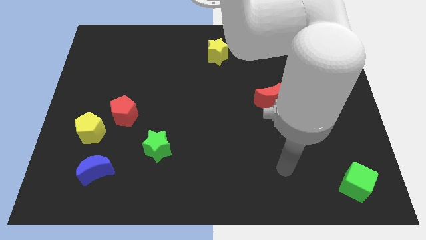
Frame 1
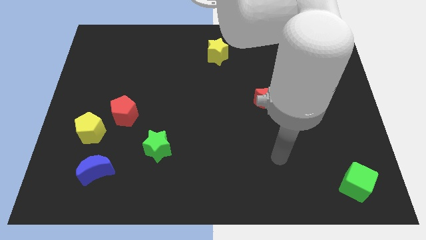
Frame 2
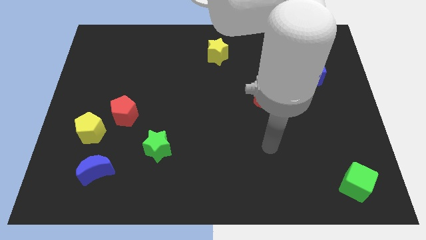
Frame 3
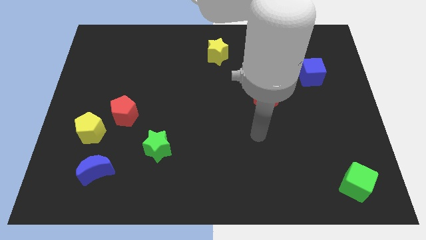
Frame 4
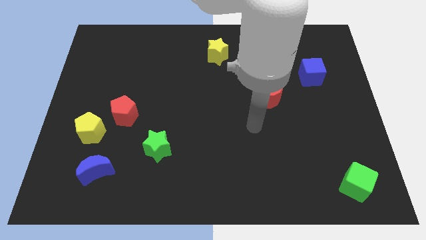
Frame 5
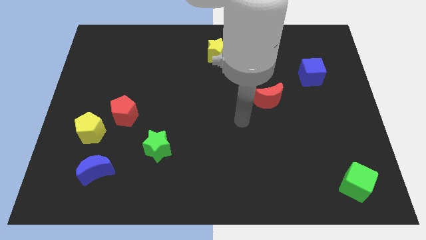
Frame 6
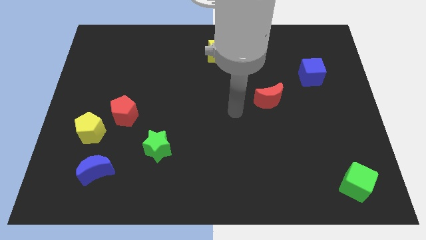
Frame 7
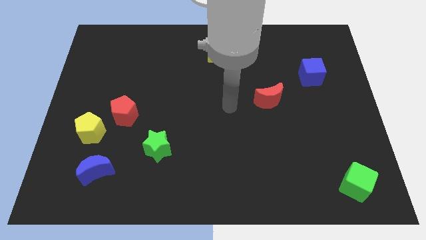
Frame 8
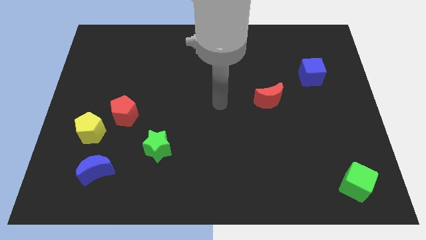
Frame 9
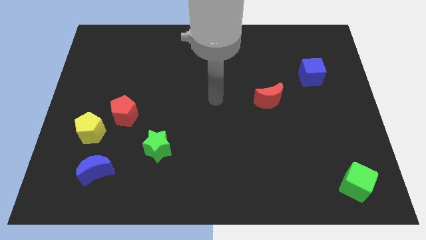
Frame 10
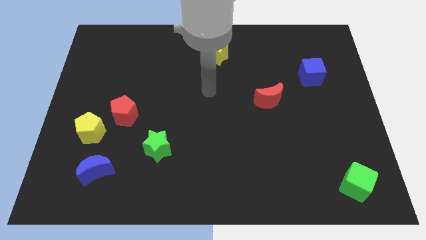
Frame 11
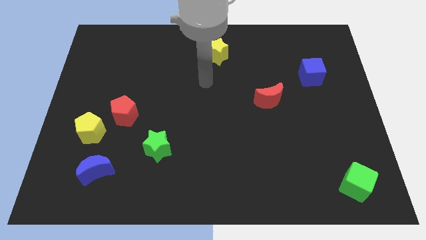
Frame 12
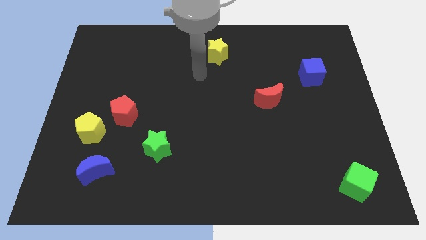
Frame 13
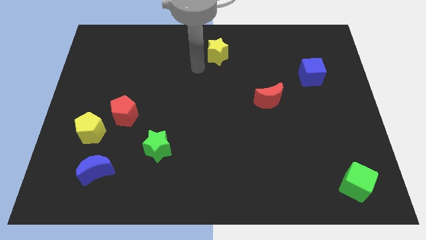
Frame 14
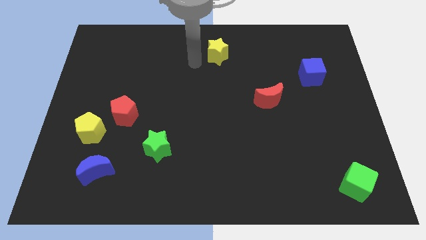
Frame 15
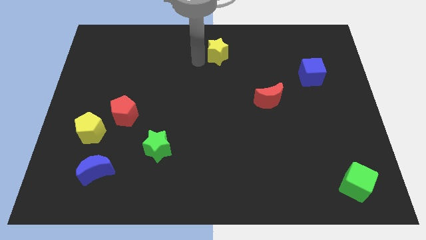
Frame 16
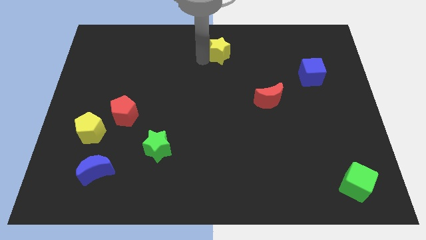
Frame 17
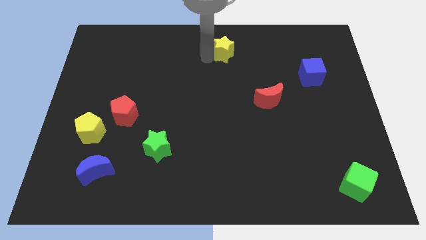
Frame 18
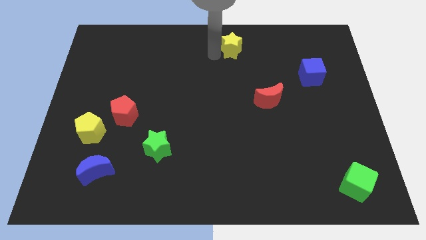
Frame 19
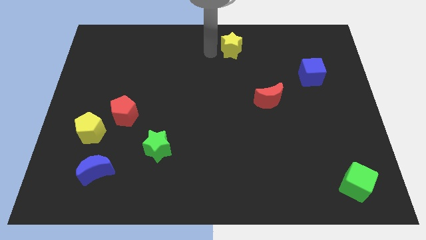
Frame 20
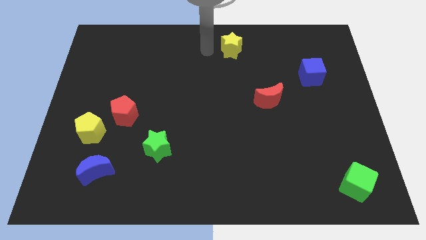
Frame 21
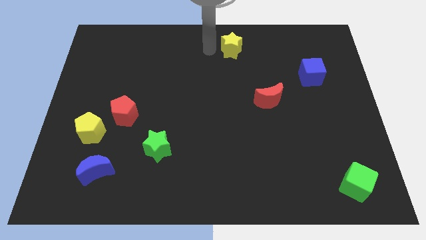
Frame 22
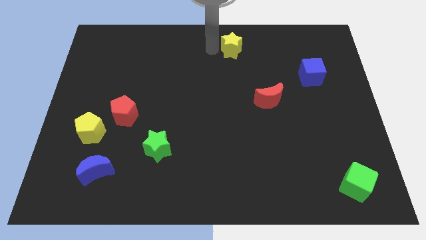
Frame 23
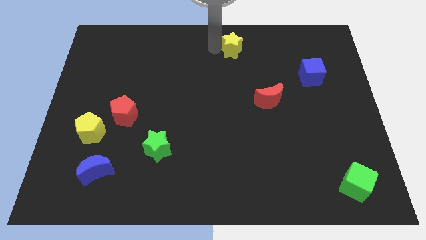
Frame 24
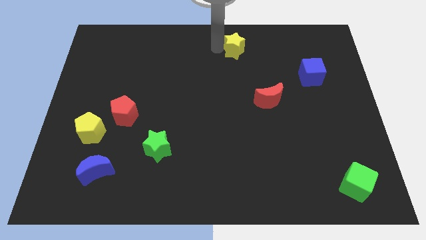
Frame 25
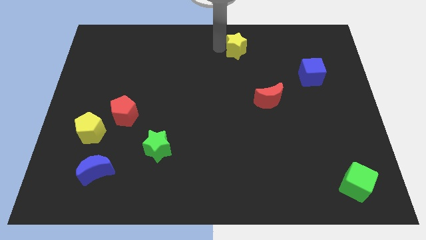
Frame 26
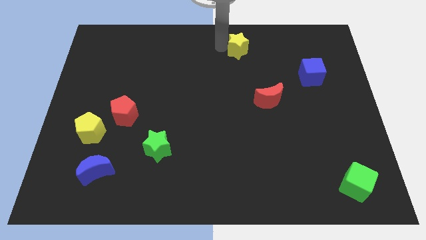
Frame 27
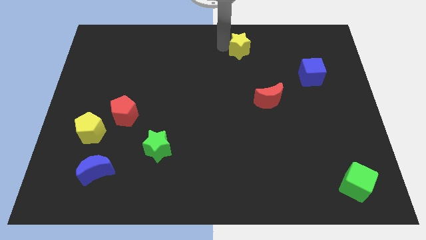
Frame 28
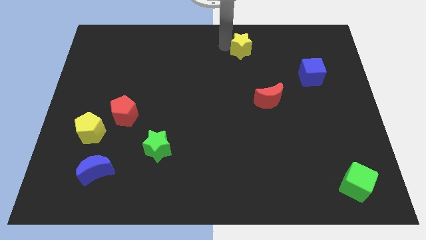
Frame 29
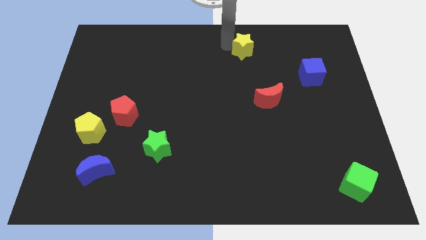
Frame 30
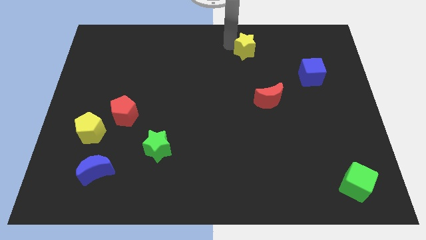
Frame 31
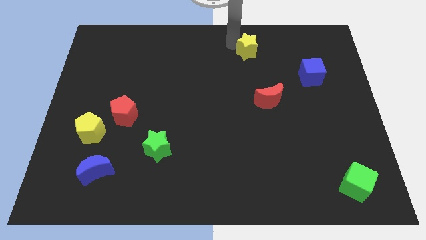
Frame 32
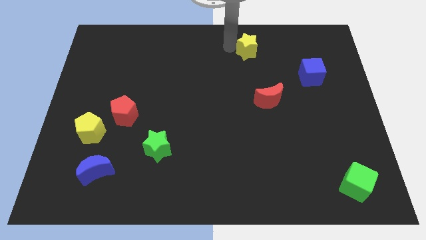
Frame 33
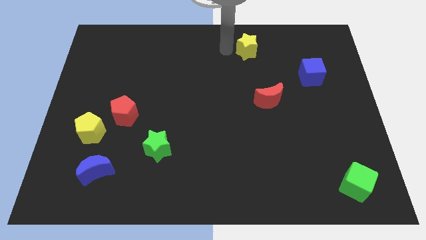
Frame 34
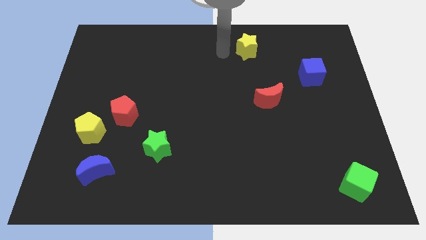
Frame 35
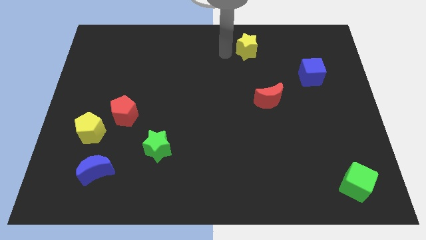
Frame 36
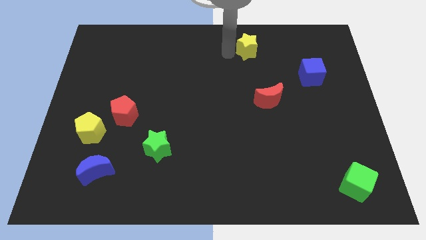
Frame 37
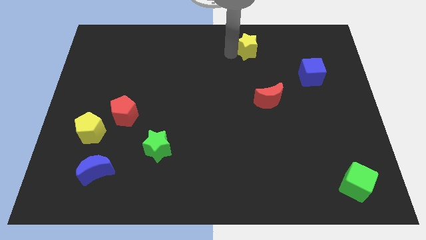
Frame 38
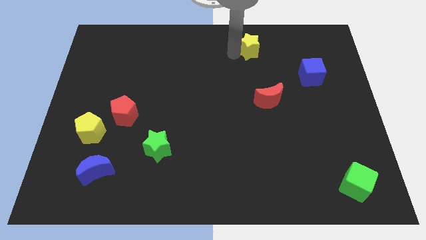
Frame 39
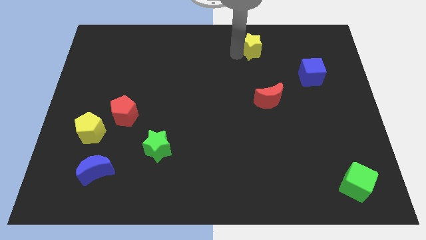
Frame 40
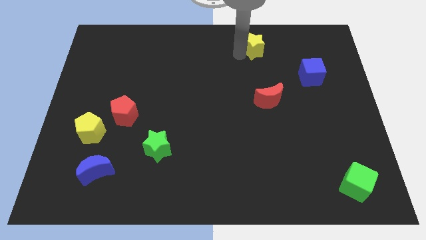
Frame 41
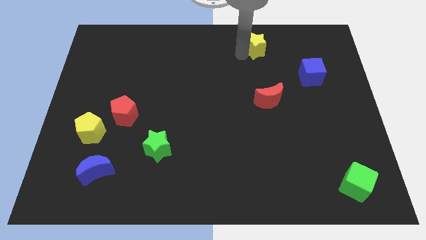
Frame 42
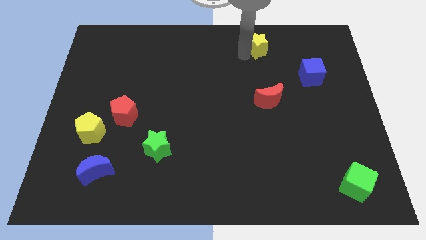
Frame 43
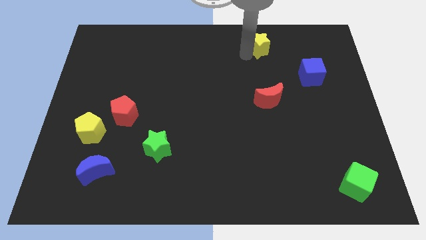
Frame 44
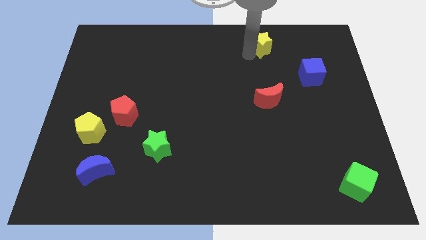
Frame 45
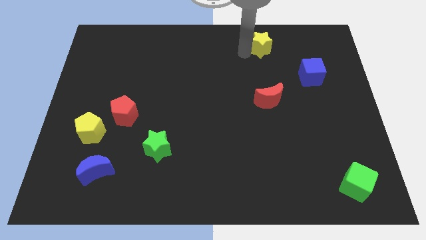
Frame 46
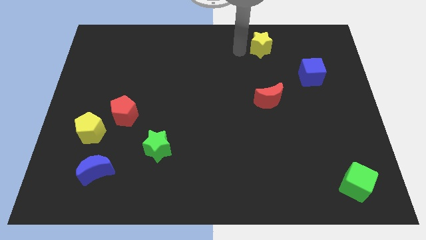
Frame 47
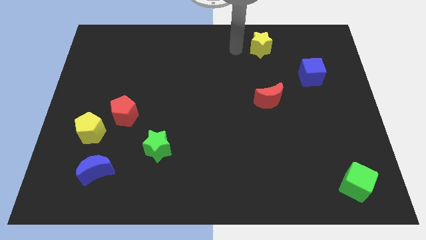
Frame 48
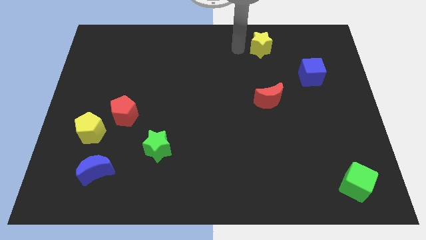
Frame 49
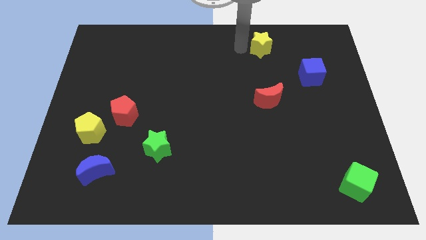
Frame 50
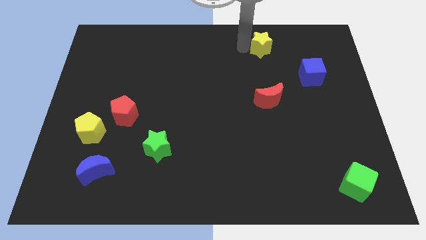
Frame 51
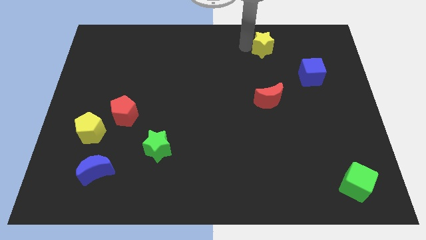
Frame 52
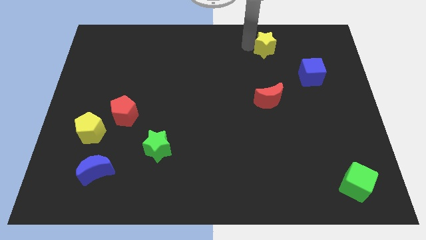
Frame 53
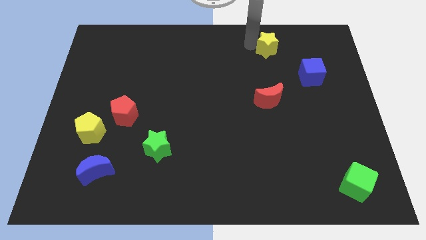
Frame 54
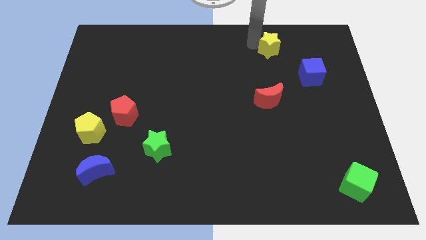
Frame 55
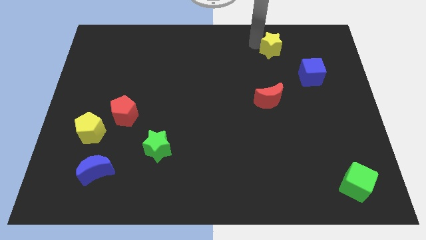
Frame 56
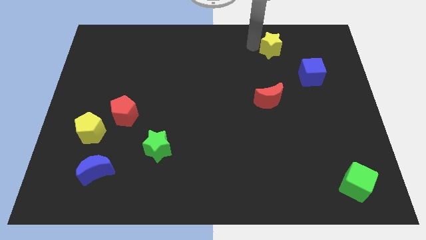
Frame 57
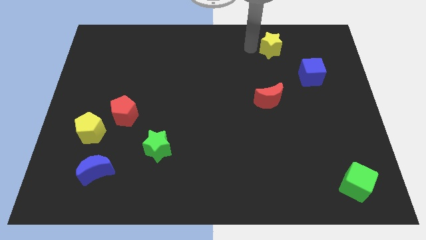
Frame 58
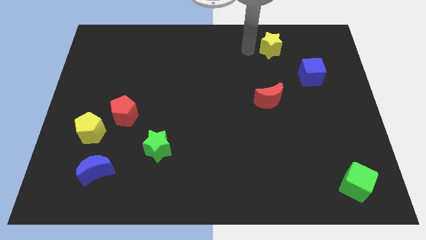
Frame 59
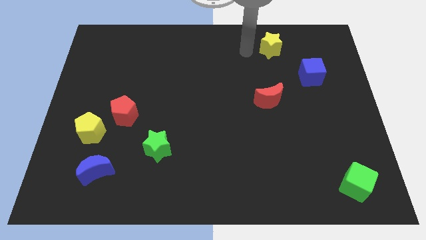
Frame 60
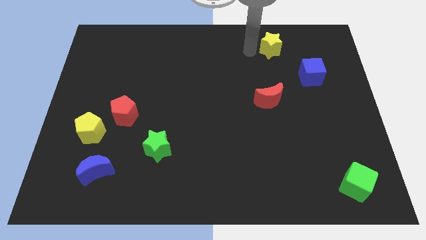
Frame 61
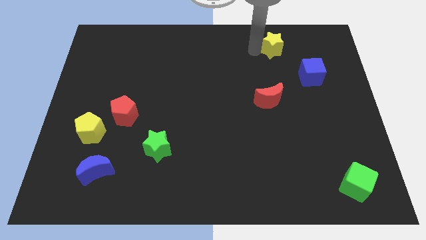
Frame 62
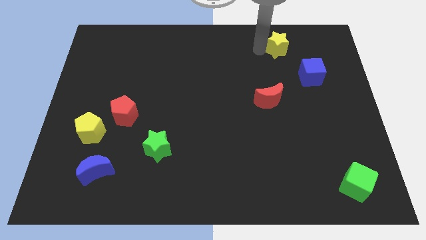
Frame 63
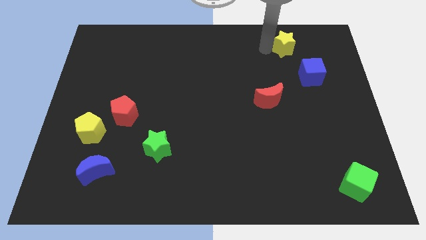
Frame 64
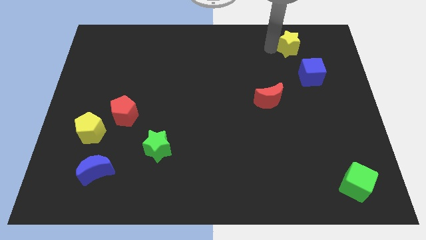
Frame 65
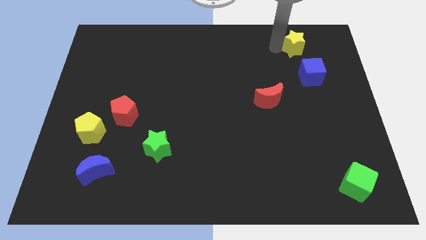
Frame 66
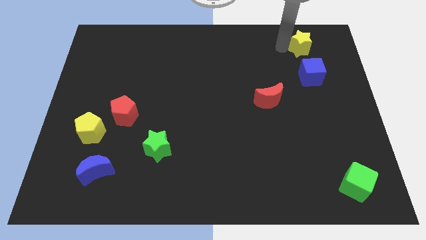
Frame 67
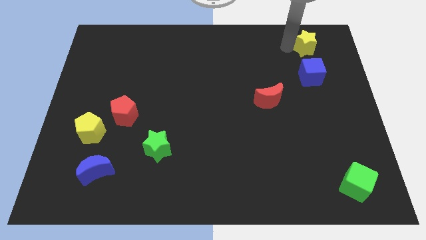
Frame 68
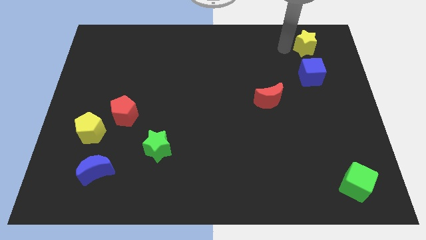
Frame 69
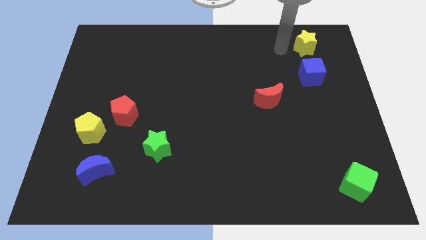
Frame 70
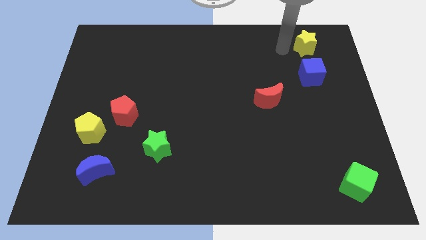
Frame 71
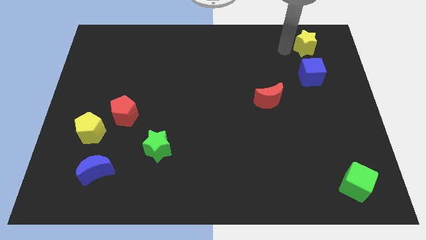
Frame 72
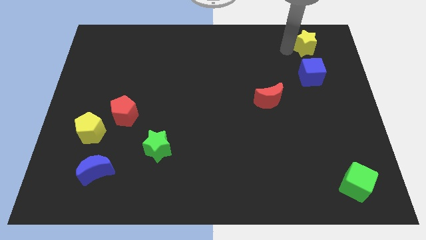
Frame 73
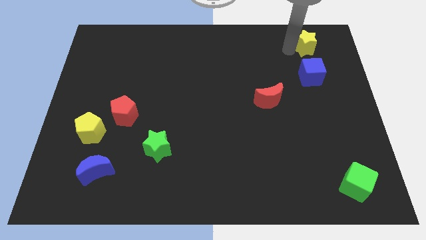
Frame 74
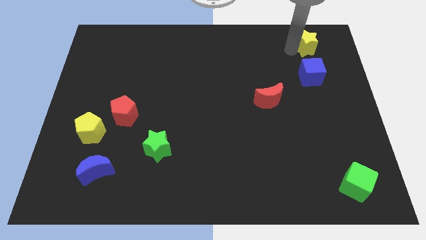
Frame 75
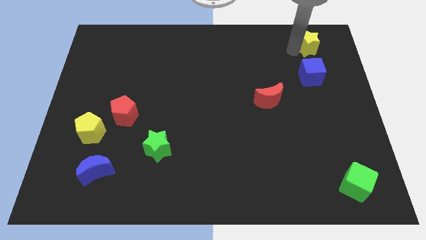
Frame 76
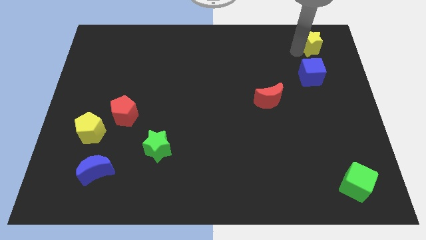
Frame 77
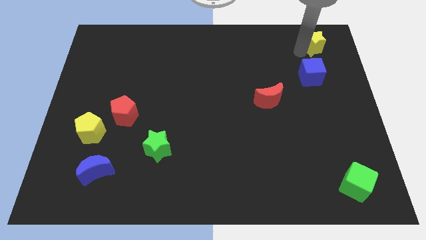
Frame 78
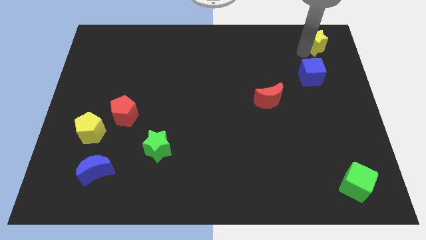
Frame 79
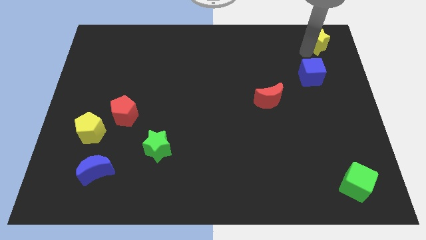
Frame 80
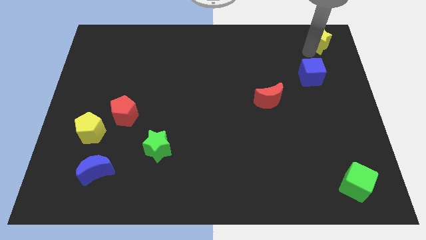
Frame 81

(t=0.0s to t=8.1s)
move the yellow star to the top right
